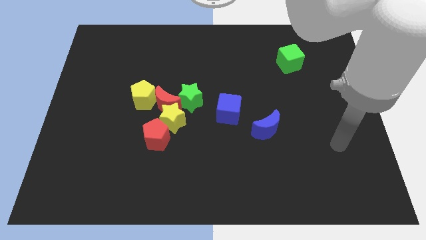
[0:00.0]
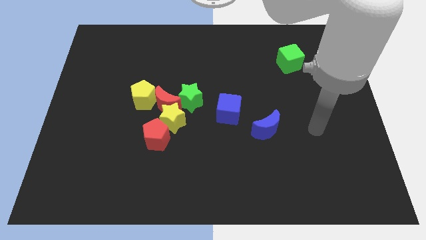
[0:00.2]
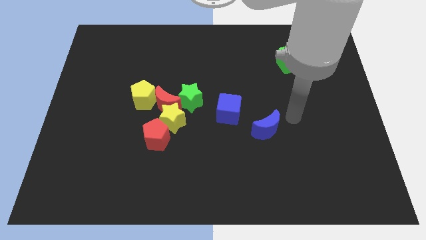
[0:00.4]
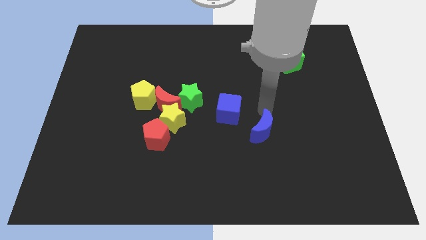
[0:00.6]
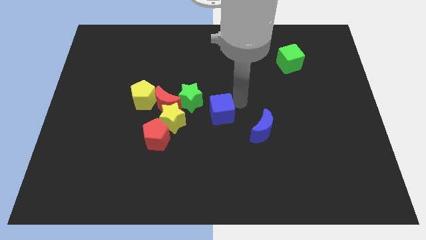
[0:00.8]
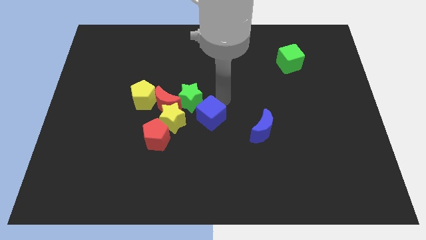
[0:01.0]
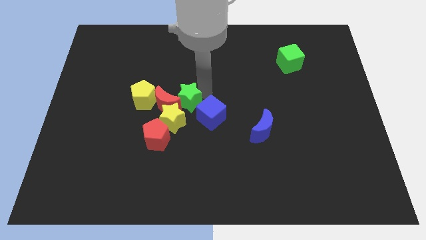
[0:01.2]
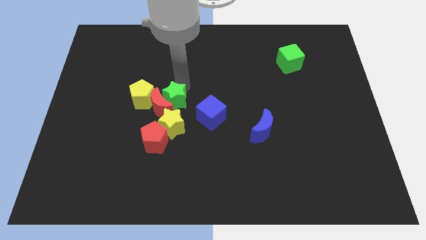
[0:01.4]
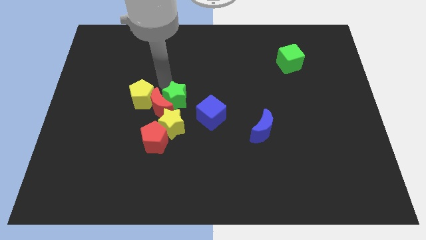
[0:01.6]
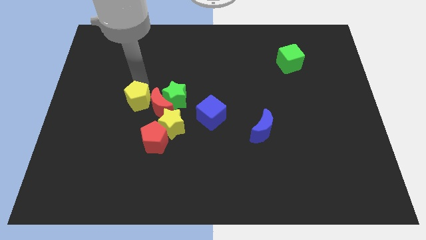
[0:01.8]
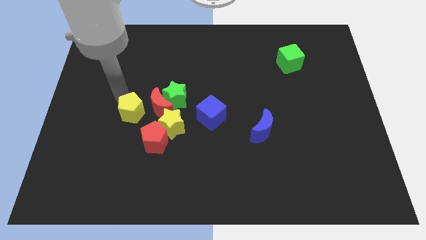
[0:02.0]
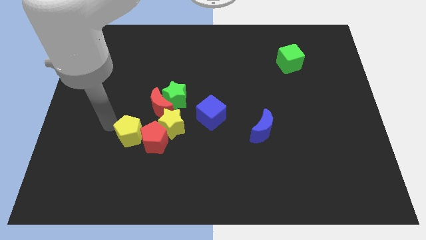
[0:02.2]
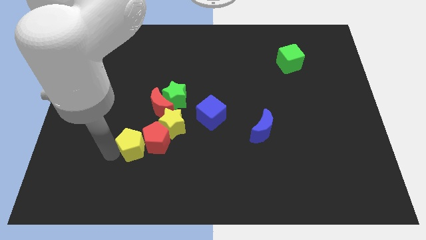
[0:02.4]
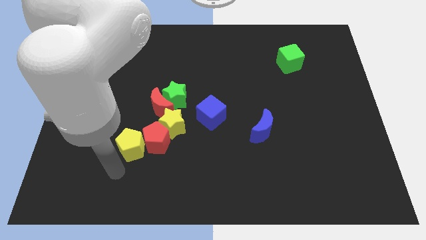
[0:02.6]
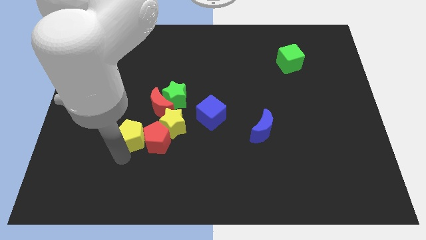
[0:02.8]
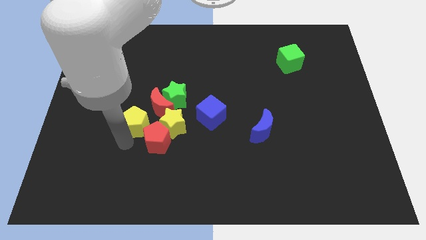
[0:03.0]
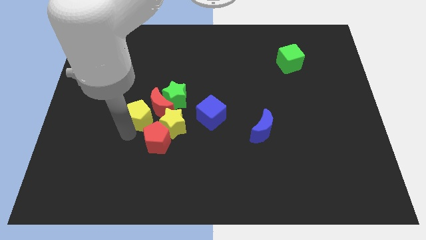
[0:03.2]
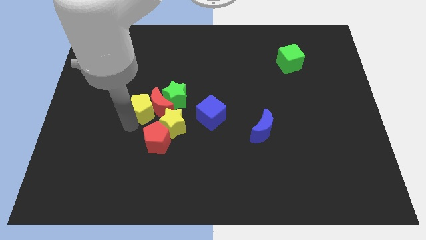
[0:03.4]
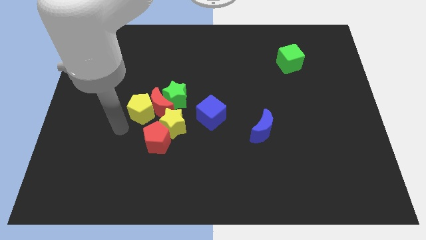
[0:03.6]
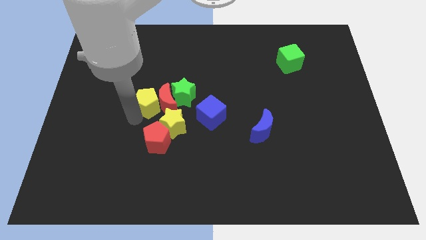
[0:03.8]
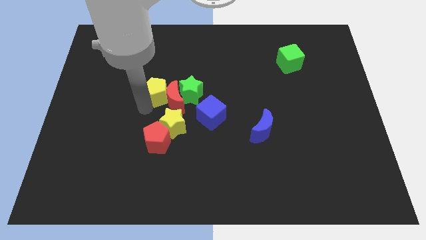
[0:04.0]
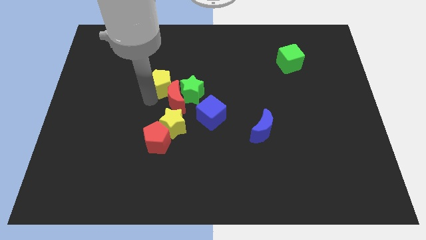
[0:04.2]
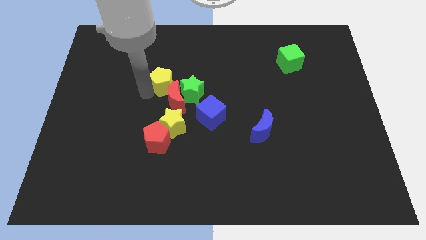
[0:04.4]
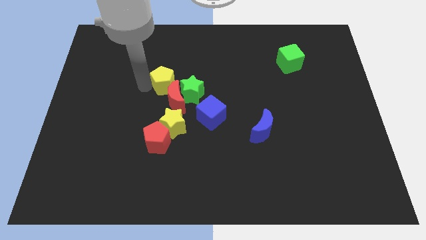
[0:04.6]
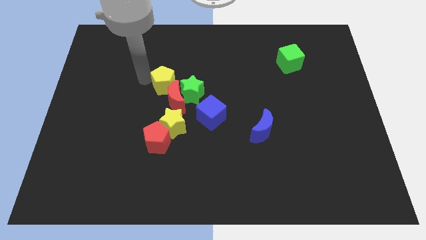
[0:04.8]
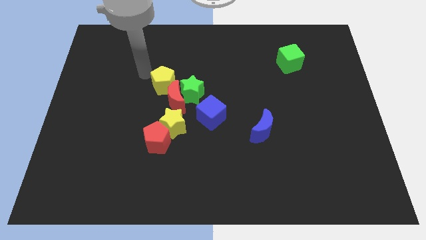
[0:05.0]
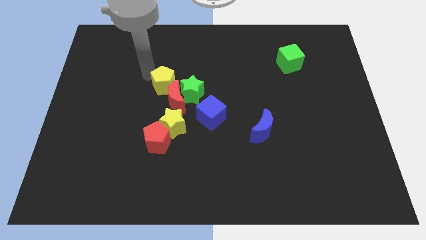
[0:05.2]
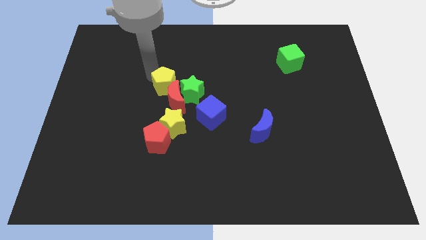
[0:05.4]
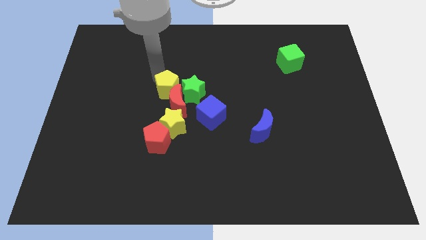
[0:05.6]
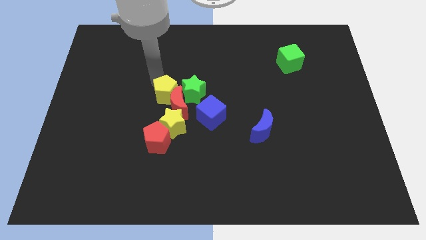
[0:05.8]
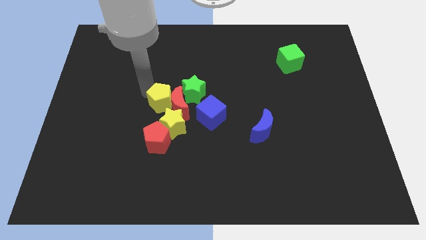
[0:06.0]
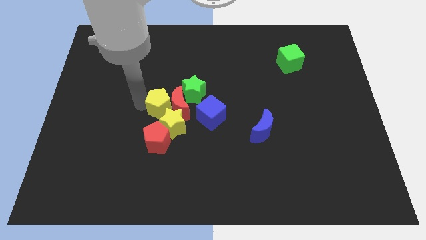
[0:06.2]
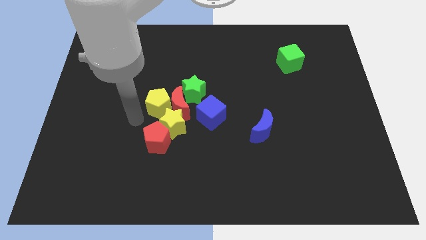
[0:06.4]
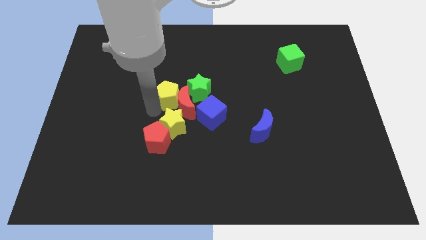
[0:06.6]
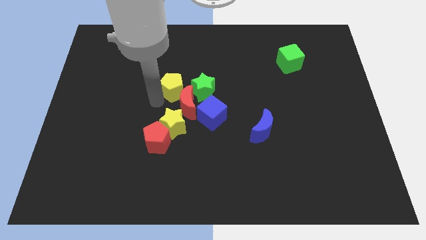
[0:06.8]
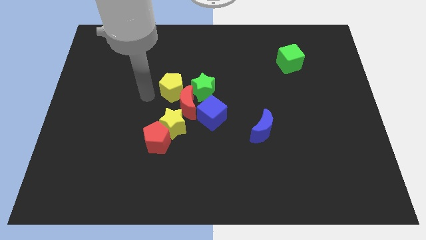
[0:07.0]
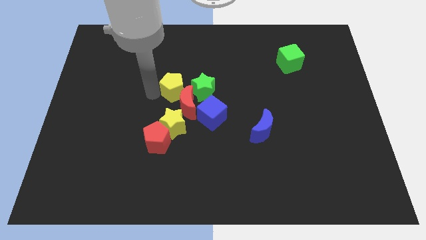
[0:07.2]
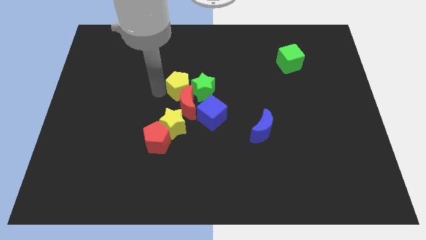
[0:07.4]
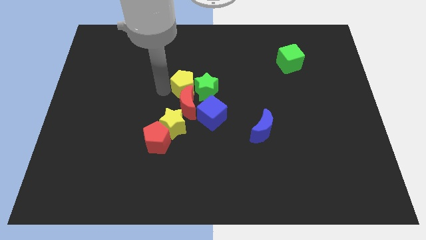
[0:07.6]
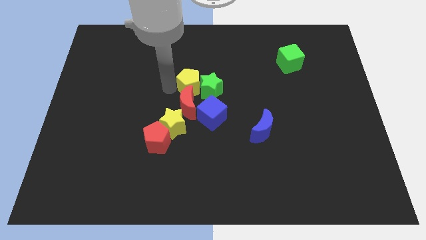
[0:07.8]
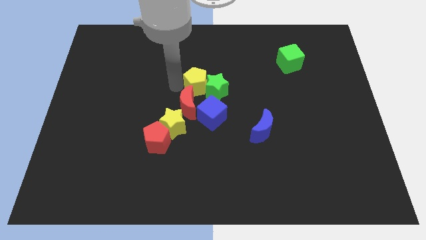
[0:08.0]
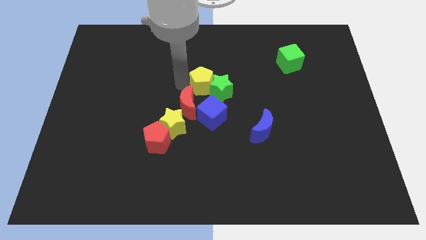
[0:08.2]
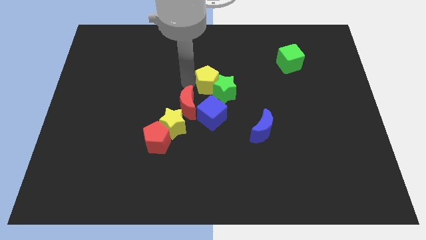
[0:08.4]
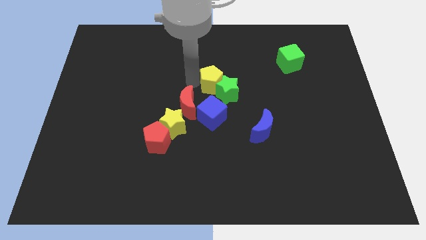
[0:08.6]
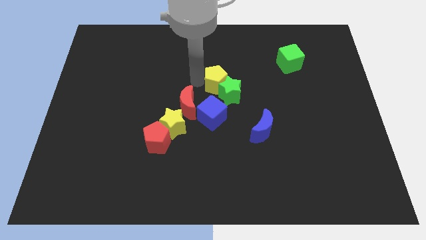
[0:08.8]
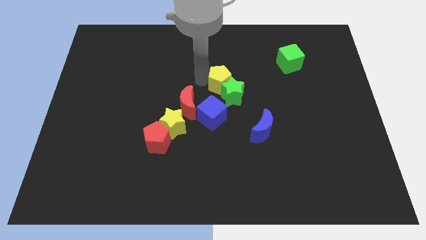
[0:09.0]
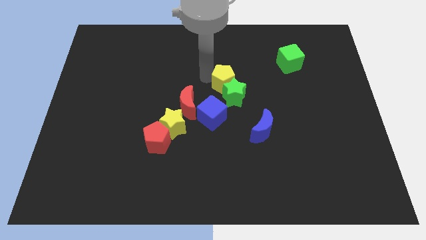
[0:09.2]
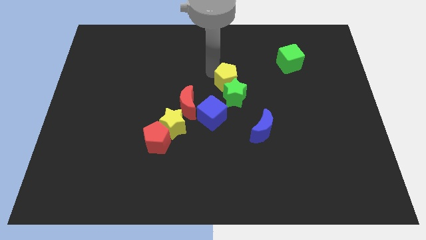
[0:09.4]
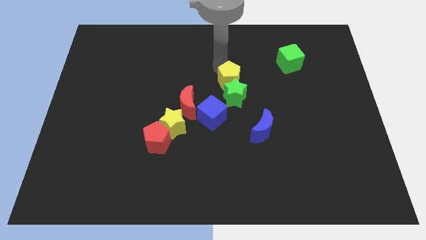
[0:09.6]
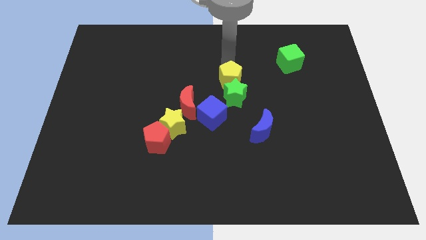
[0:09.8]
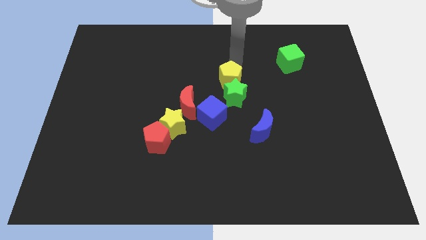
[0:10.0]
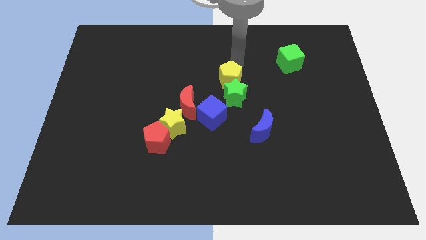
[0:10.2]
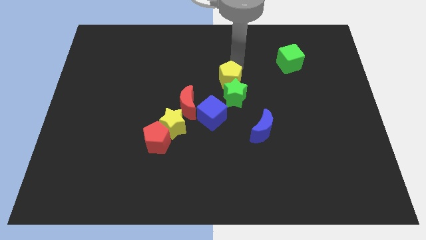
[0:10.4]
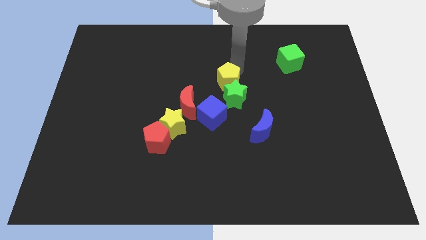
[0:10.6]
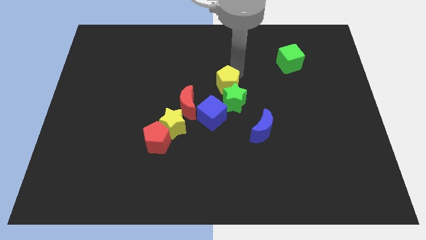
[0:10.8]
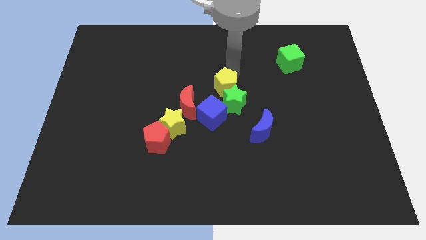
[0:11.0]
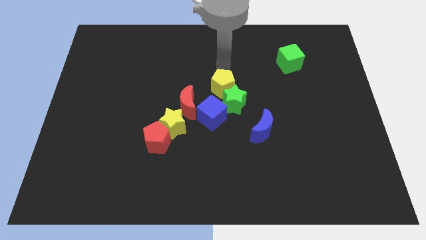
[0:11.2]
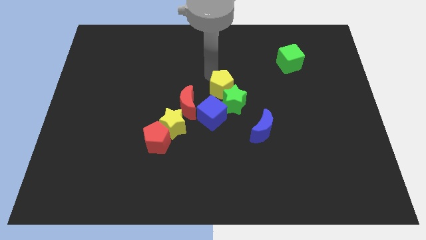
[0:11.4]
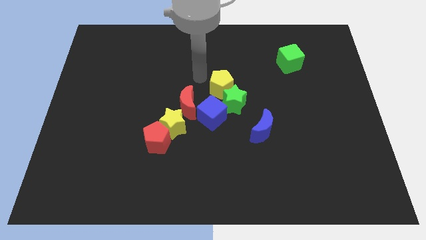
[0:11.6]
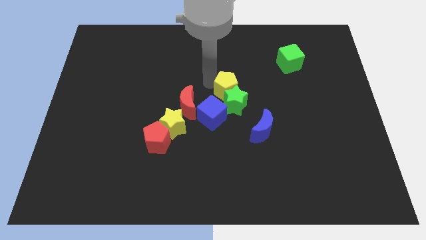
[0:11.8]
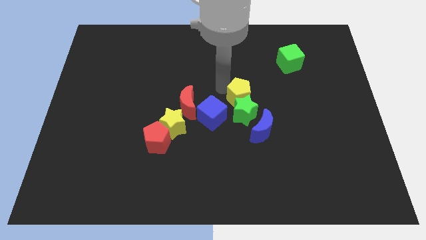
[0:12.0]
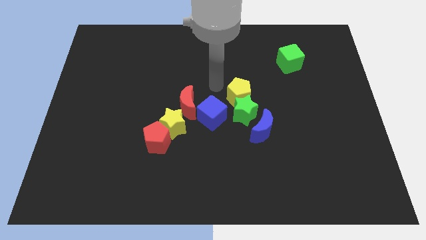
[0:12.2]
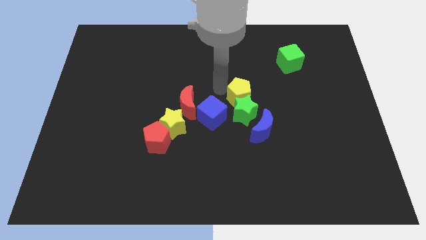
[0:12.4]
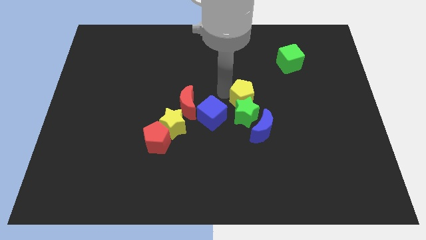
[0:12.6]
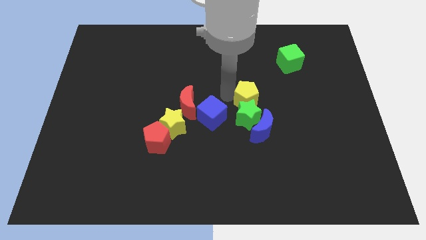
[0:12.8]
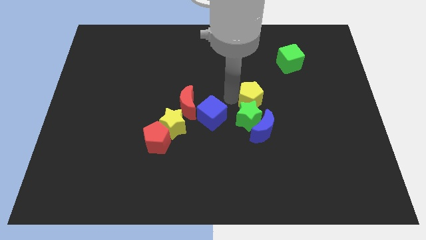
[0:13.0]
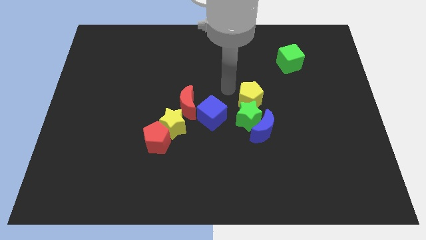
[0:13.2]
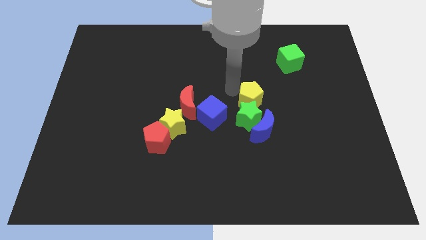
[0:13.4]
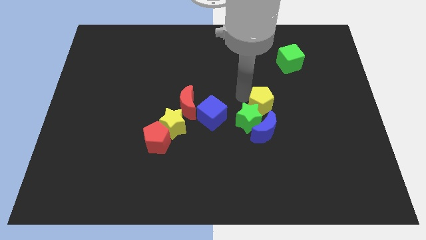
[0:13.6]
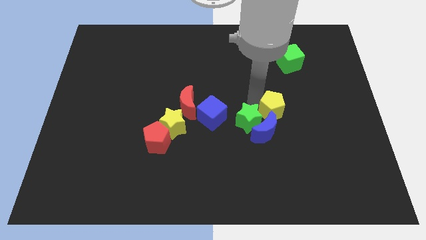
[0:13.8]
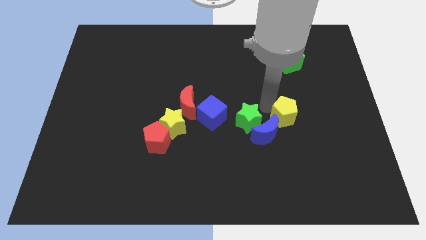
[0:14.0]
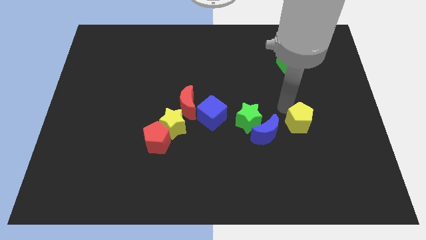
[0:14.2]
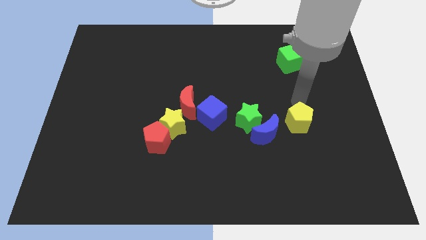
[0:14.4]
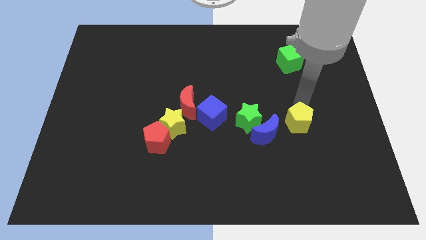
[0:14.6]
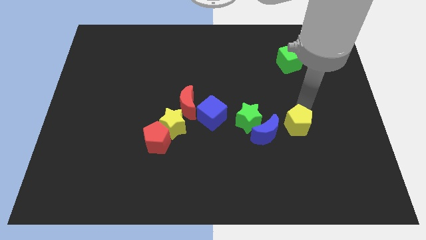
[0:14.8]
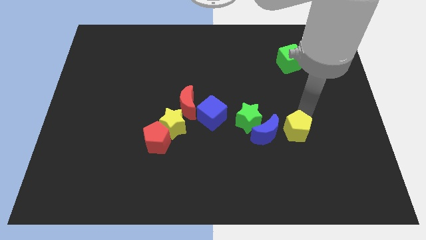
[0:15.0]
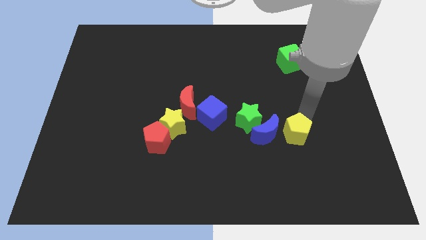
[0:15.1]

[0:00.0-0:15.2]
put the yellow pentagon diagonally down and to the right of the blue moon

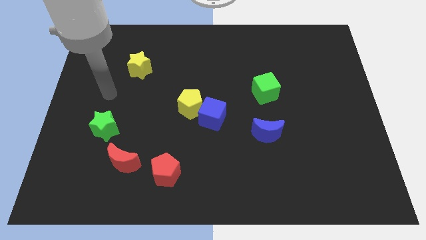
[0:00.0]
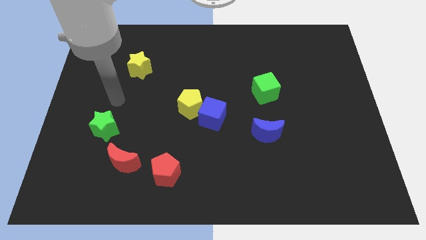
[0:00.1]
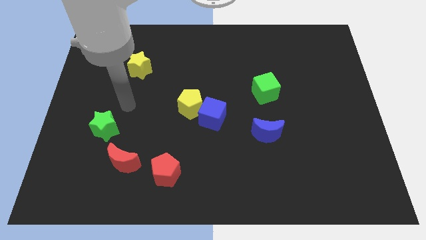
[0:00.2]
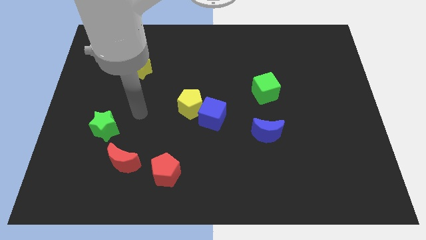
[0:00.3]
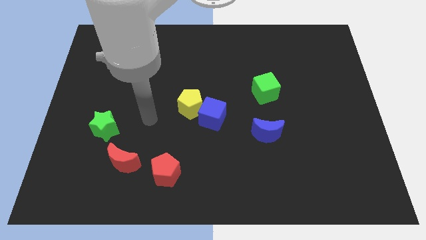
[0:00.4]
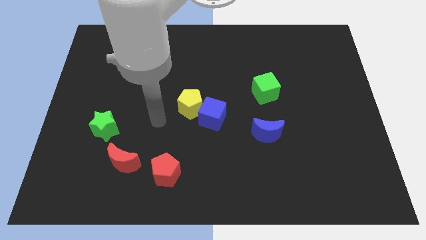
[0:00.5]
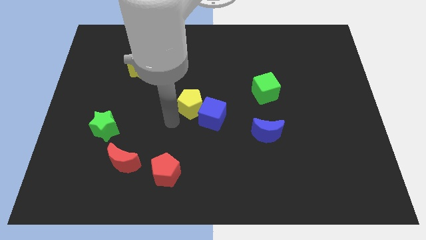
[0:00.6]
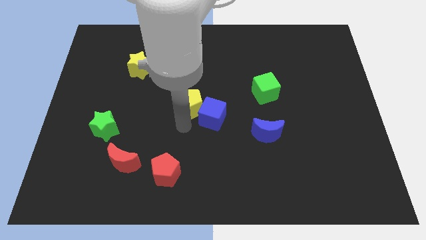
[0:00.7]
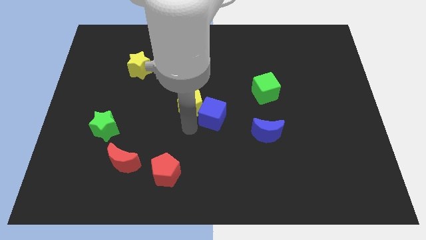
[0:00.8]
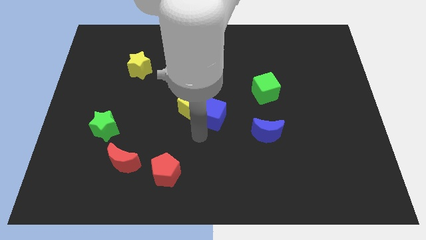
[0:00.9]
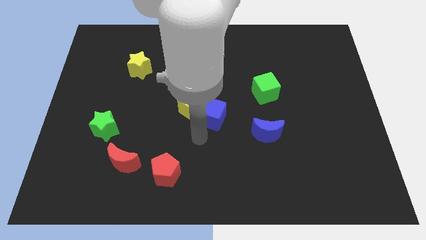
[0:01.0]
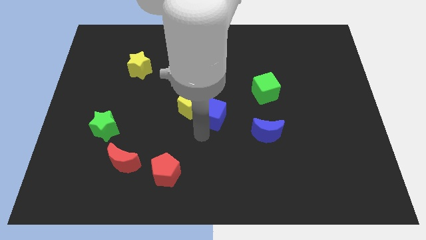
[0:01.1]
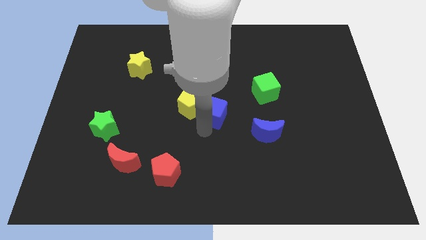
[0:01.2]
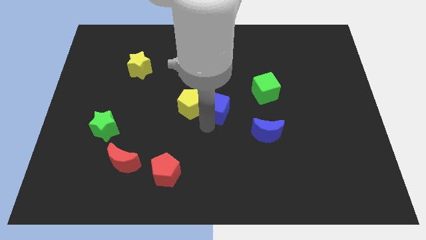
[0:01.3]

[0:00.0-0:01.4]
push the blue cube diagonally up and to the right of the yellow pentagon
